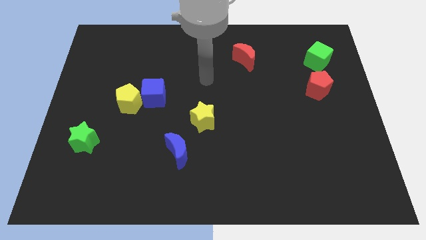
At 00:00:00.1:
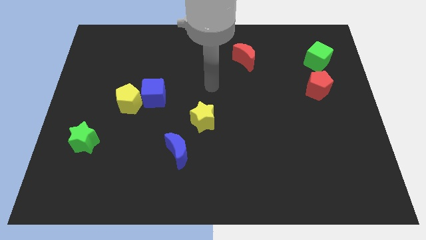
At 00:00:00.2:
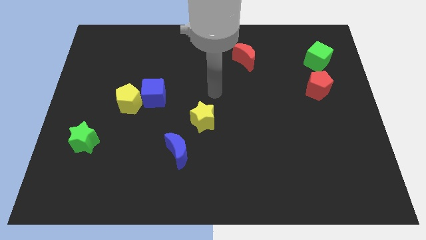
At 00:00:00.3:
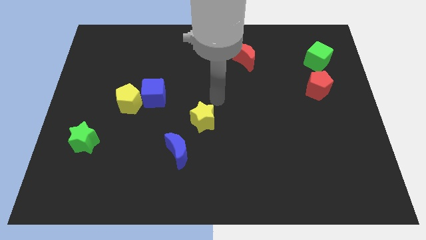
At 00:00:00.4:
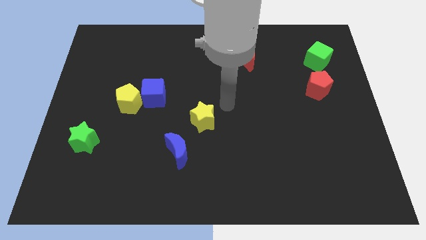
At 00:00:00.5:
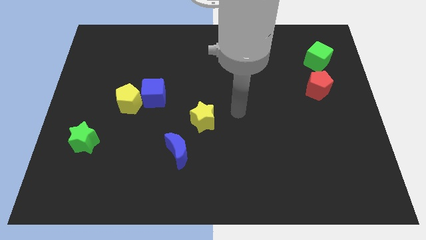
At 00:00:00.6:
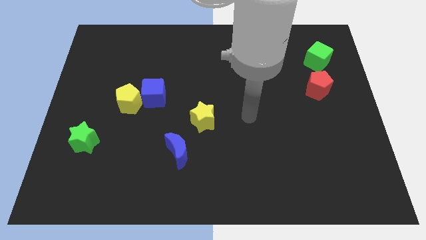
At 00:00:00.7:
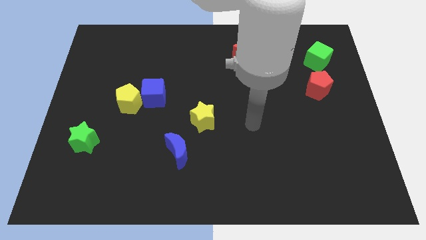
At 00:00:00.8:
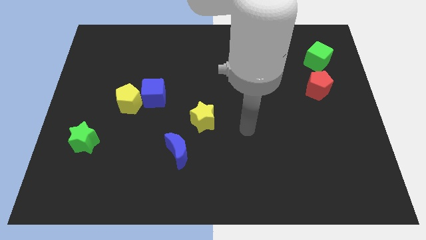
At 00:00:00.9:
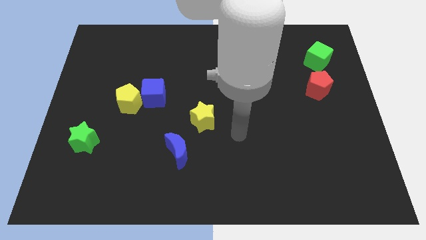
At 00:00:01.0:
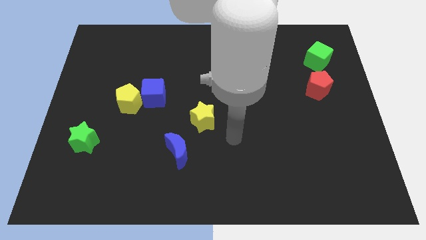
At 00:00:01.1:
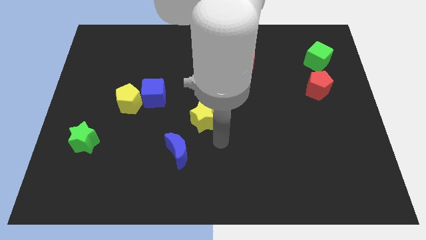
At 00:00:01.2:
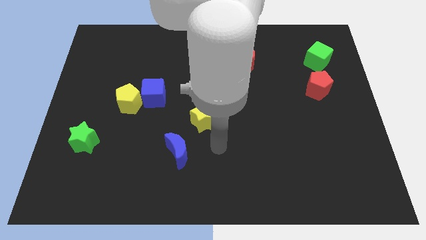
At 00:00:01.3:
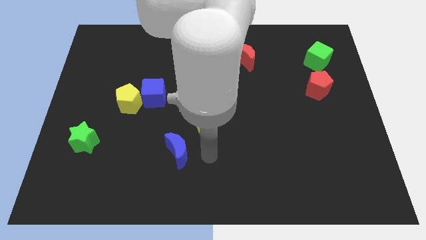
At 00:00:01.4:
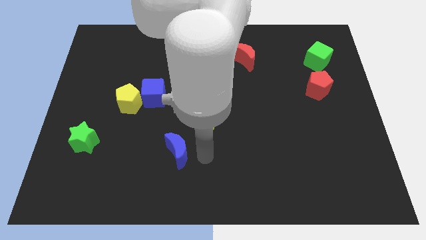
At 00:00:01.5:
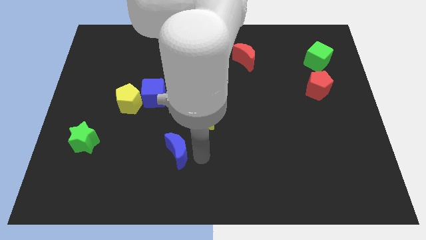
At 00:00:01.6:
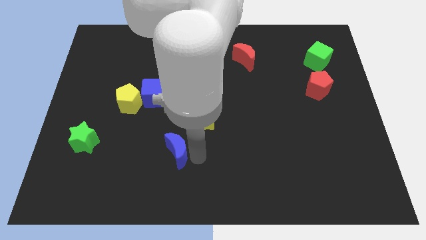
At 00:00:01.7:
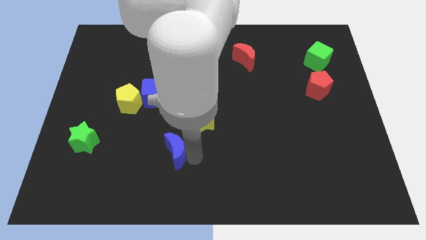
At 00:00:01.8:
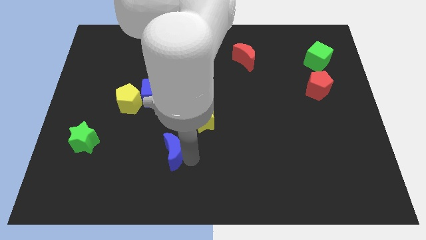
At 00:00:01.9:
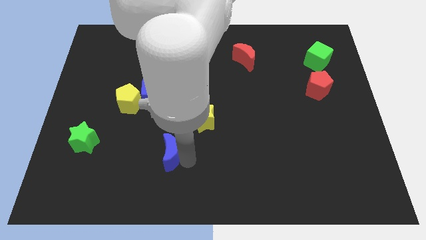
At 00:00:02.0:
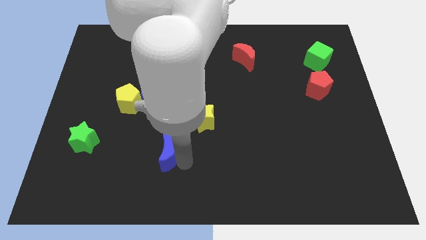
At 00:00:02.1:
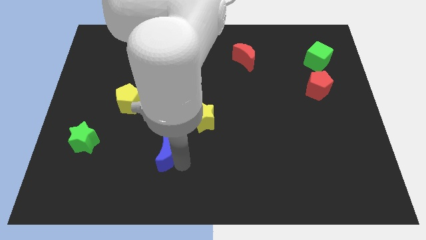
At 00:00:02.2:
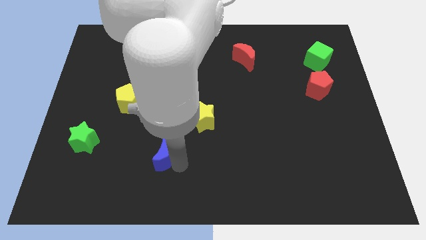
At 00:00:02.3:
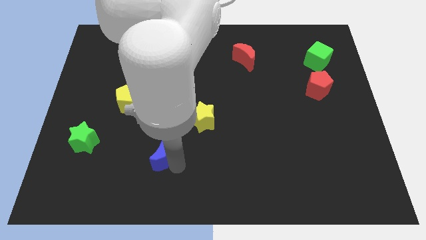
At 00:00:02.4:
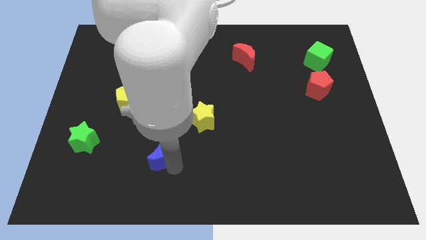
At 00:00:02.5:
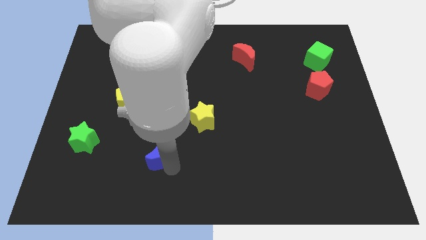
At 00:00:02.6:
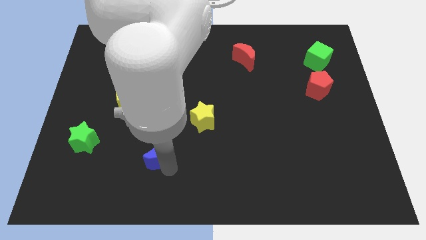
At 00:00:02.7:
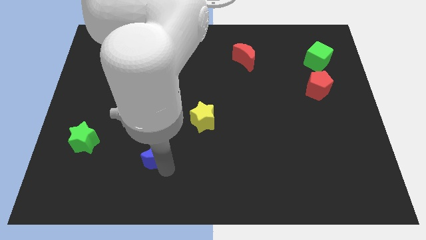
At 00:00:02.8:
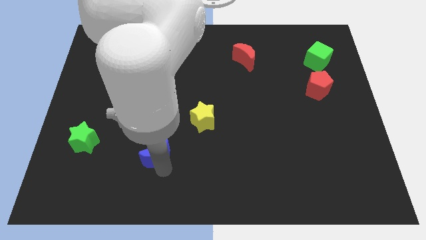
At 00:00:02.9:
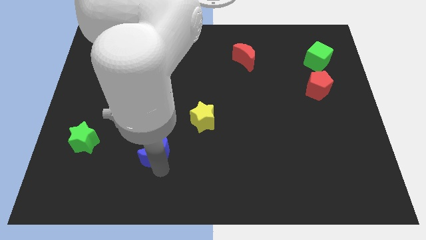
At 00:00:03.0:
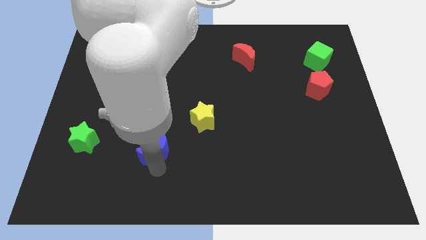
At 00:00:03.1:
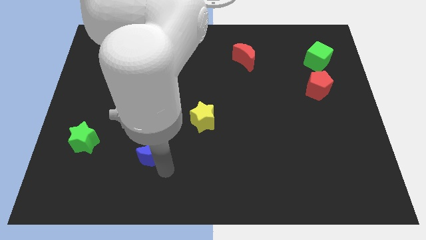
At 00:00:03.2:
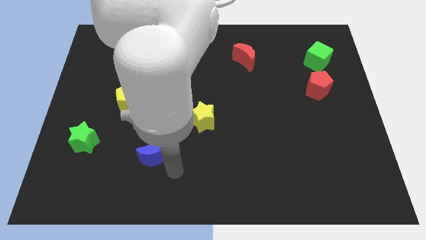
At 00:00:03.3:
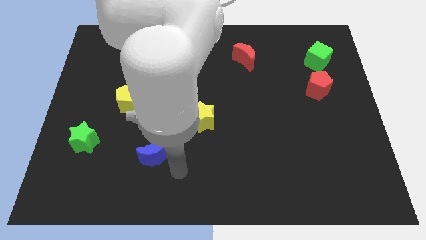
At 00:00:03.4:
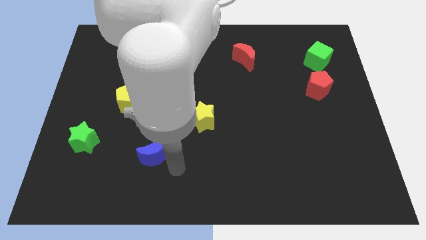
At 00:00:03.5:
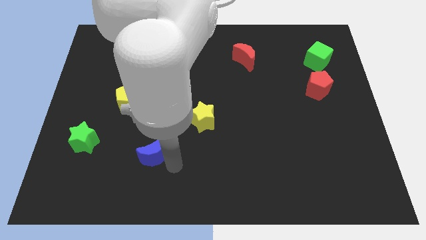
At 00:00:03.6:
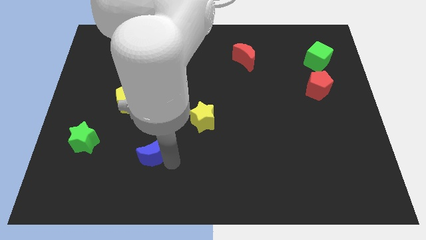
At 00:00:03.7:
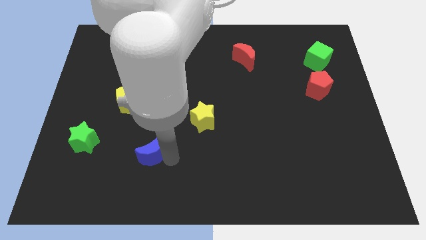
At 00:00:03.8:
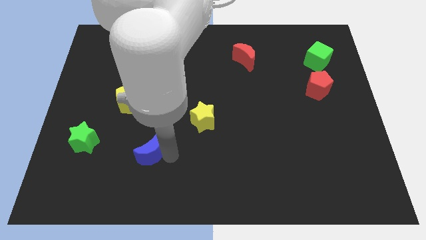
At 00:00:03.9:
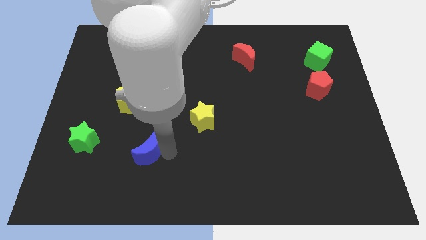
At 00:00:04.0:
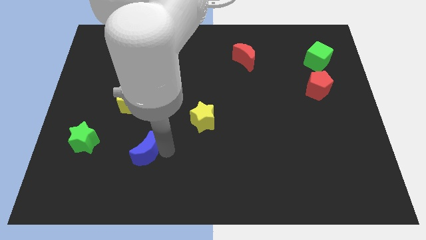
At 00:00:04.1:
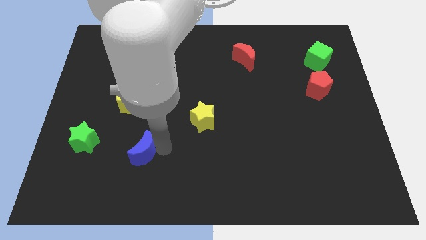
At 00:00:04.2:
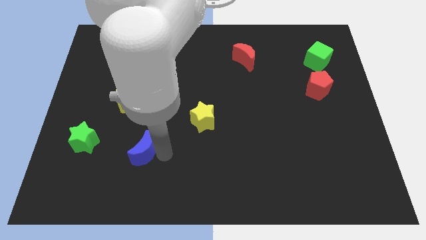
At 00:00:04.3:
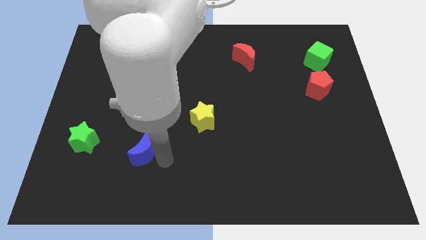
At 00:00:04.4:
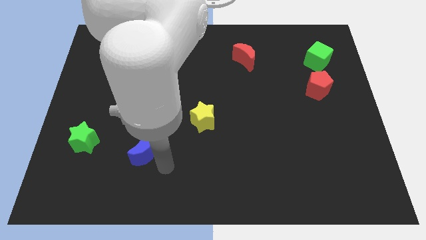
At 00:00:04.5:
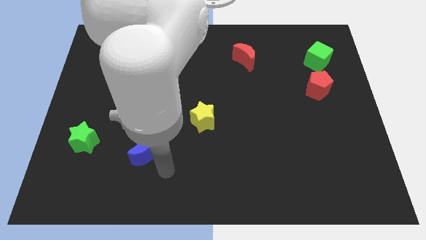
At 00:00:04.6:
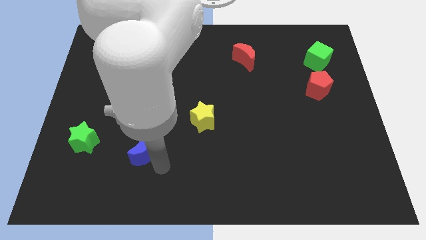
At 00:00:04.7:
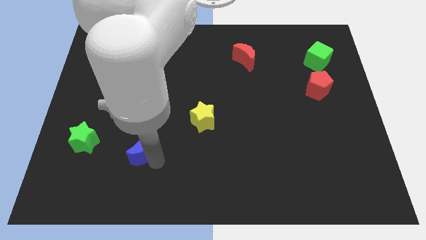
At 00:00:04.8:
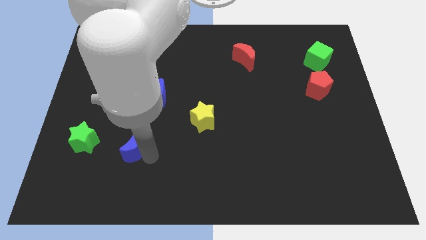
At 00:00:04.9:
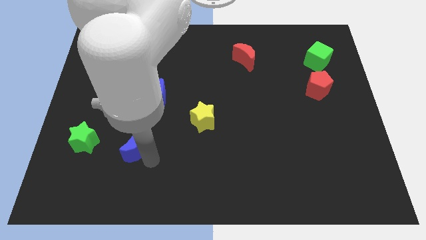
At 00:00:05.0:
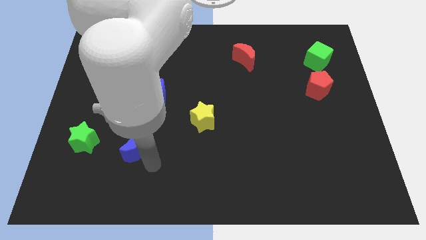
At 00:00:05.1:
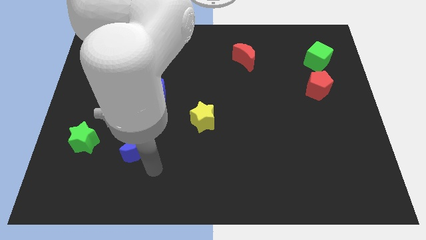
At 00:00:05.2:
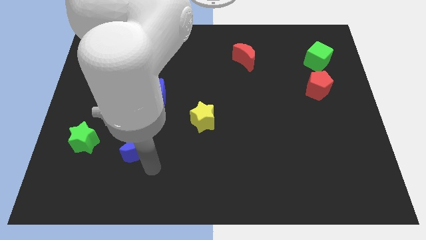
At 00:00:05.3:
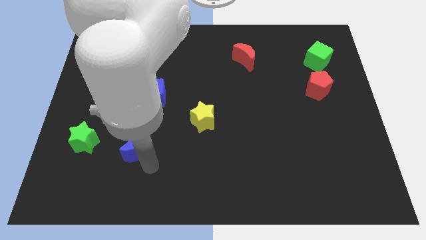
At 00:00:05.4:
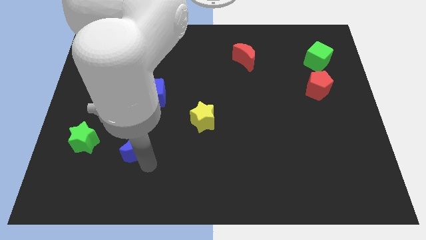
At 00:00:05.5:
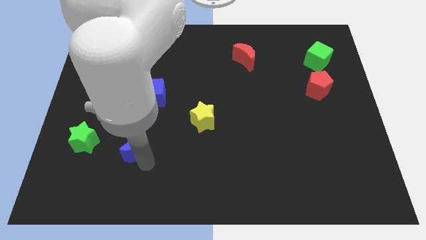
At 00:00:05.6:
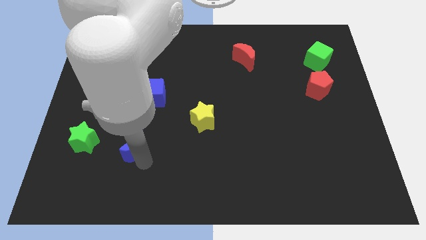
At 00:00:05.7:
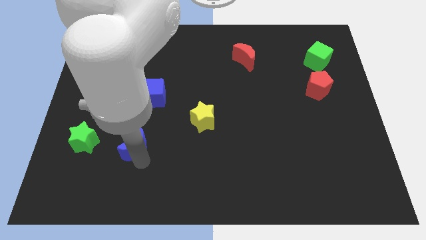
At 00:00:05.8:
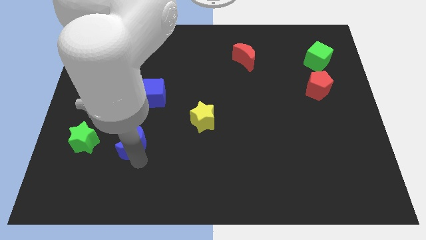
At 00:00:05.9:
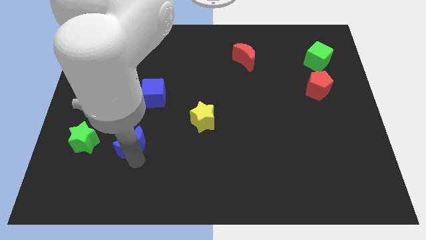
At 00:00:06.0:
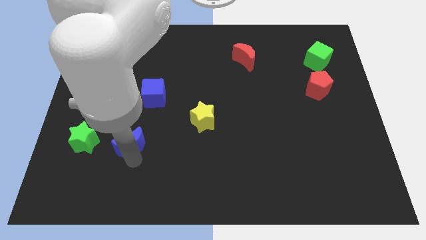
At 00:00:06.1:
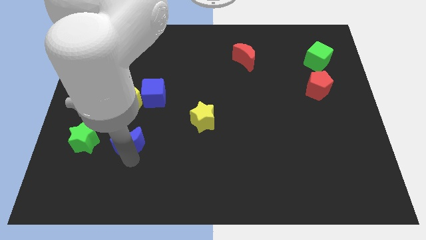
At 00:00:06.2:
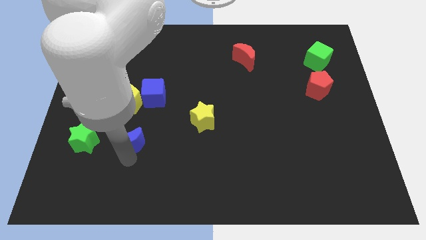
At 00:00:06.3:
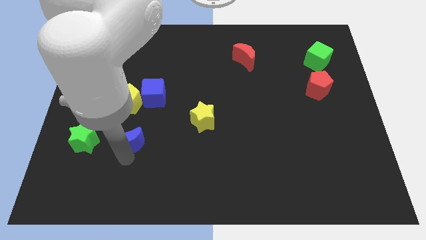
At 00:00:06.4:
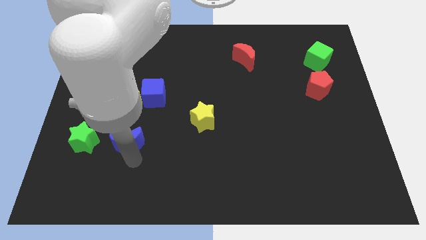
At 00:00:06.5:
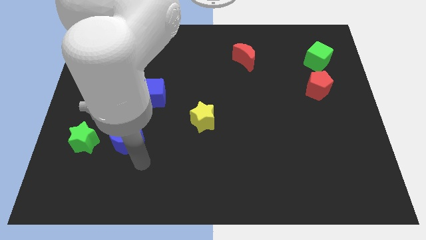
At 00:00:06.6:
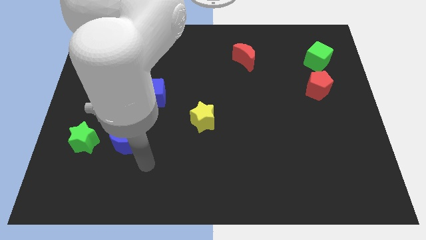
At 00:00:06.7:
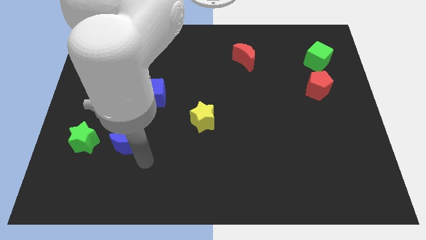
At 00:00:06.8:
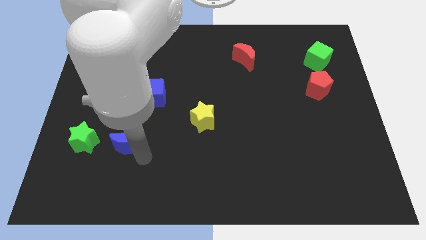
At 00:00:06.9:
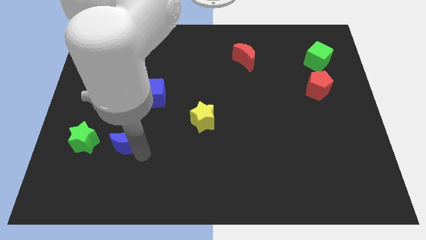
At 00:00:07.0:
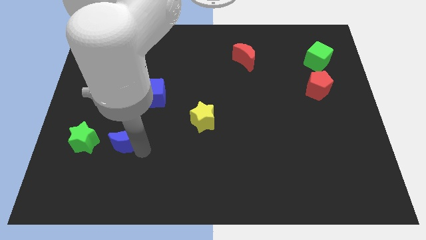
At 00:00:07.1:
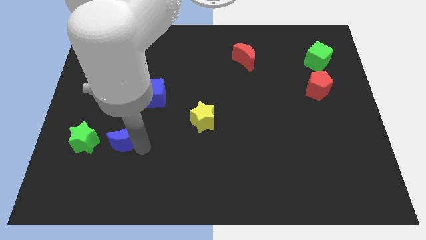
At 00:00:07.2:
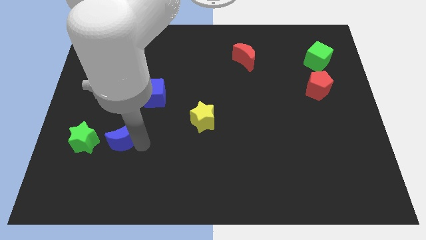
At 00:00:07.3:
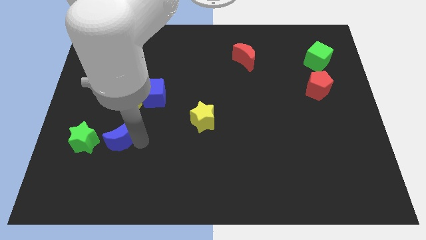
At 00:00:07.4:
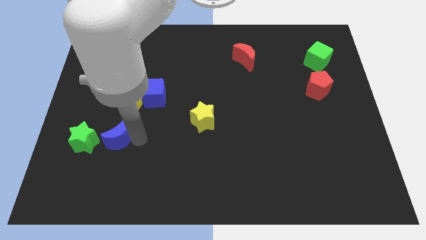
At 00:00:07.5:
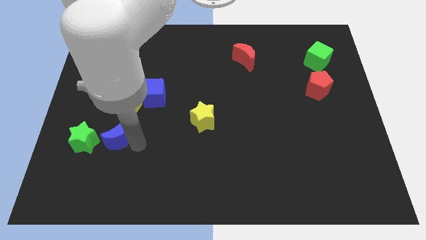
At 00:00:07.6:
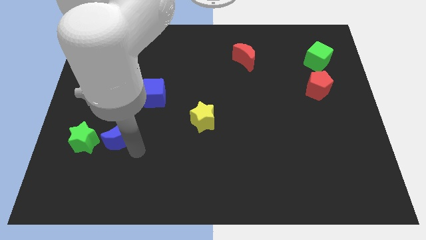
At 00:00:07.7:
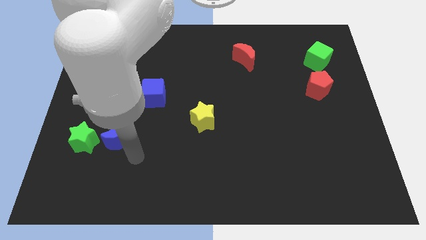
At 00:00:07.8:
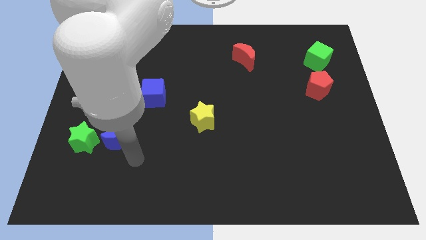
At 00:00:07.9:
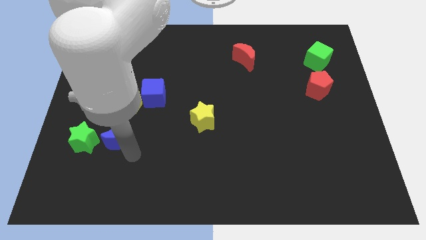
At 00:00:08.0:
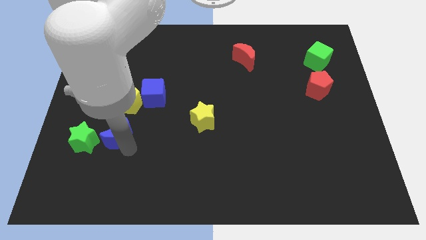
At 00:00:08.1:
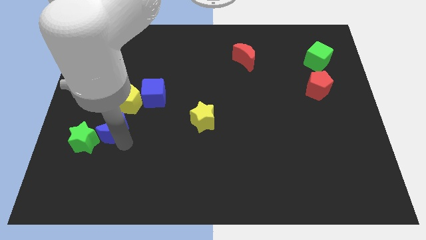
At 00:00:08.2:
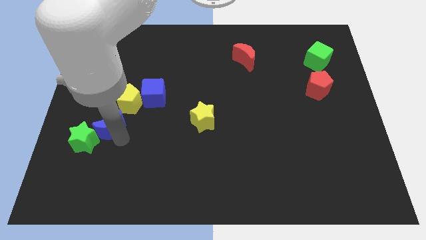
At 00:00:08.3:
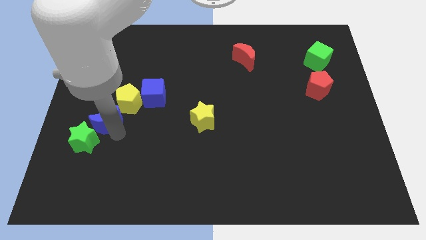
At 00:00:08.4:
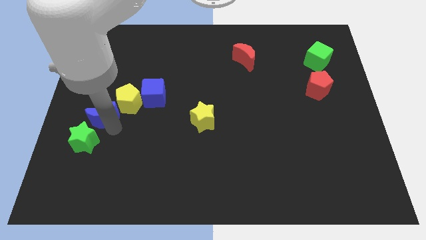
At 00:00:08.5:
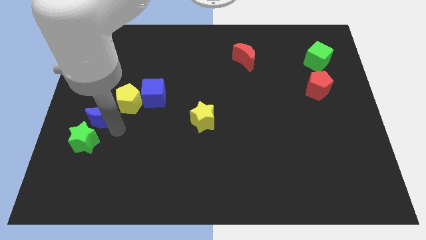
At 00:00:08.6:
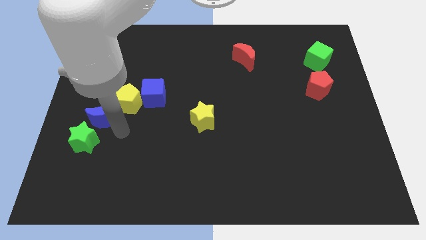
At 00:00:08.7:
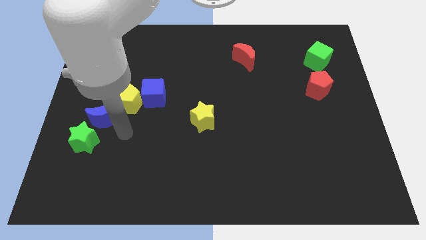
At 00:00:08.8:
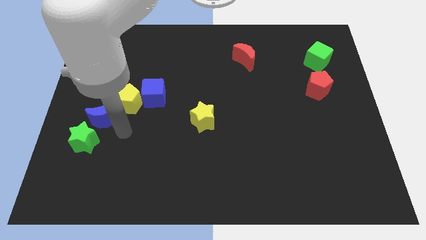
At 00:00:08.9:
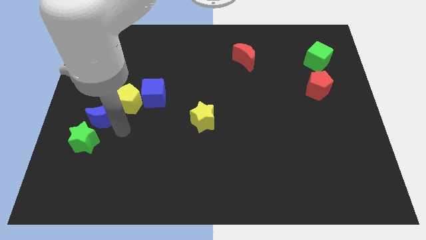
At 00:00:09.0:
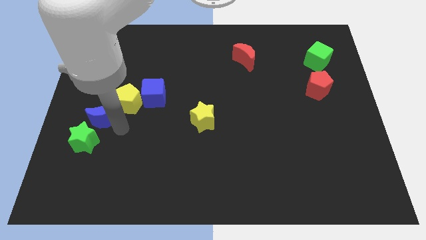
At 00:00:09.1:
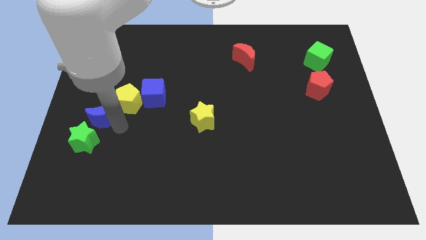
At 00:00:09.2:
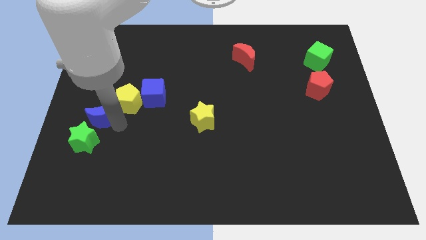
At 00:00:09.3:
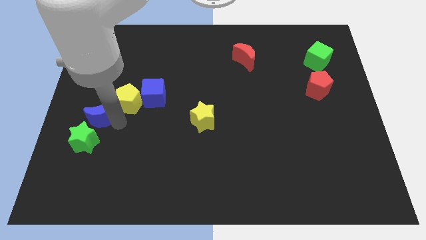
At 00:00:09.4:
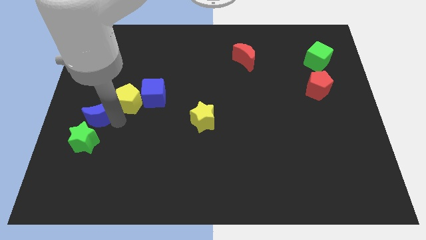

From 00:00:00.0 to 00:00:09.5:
push the blue moon to the left side of the board
